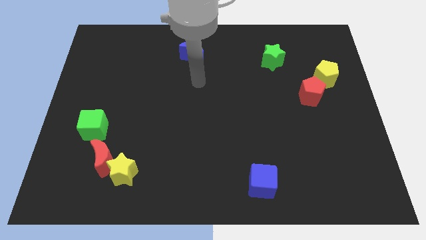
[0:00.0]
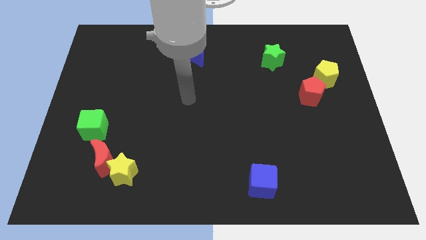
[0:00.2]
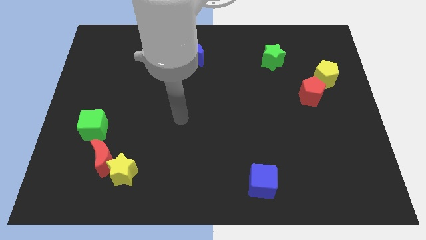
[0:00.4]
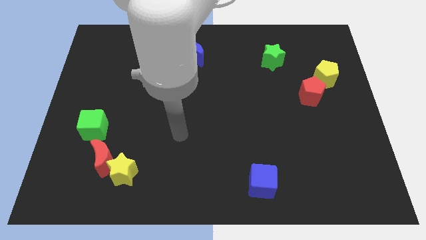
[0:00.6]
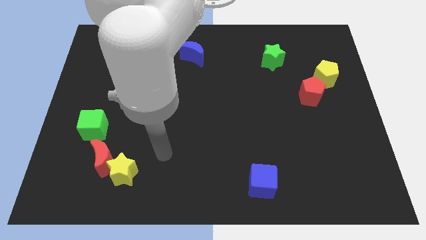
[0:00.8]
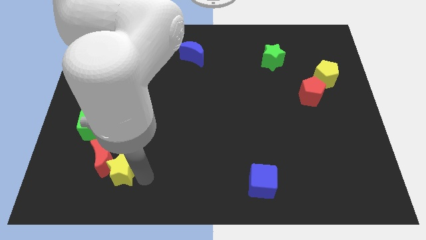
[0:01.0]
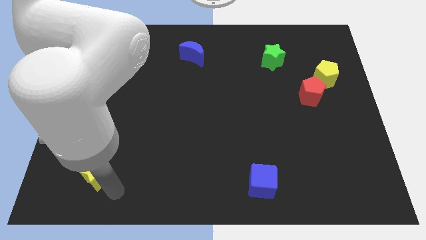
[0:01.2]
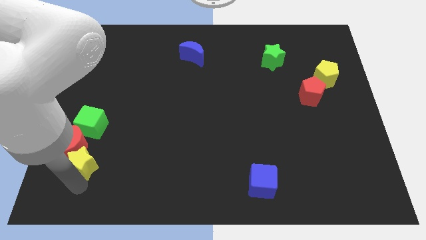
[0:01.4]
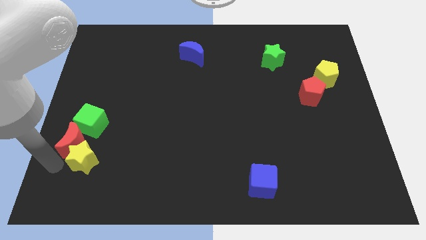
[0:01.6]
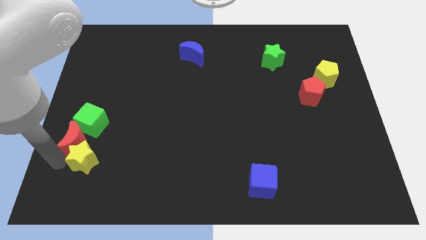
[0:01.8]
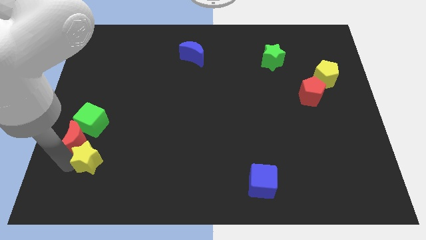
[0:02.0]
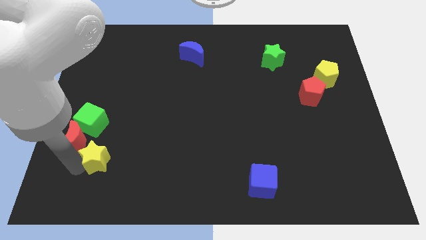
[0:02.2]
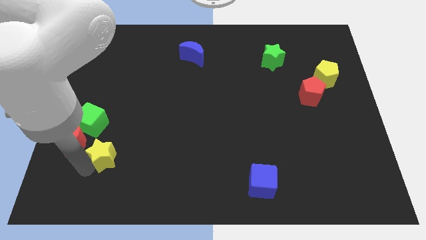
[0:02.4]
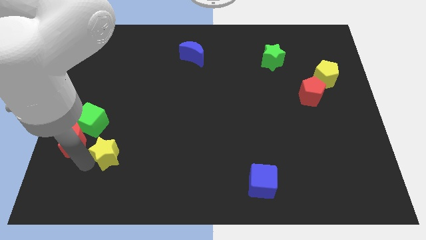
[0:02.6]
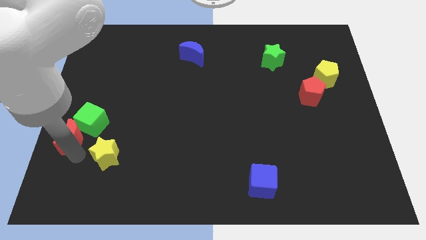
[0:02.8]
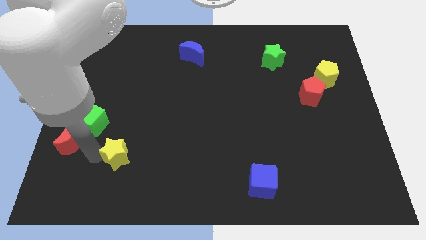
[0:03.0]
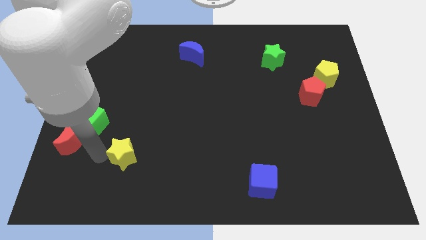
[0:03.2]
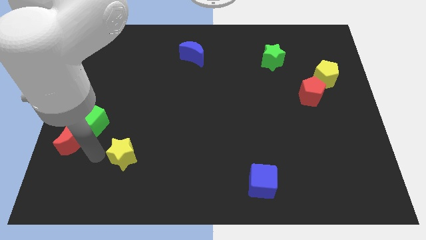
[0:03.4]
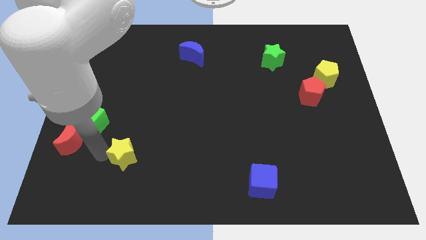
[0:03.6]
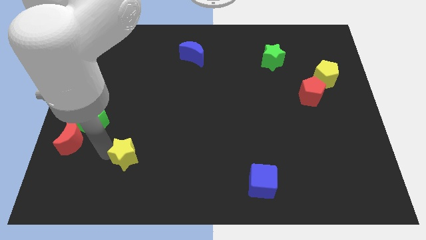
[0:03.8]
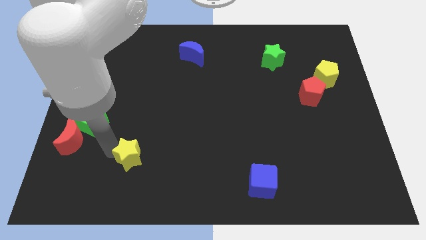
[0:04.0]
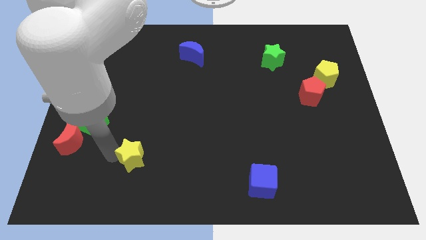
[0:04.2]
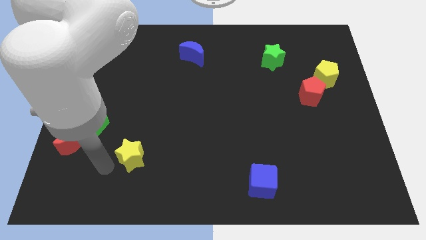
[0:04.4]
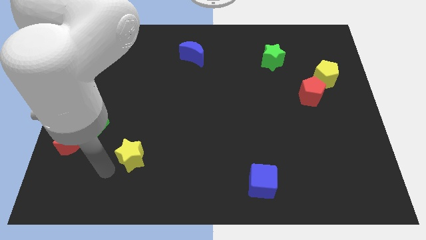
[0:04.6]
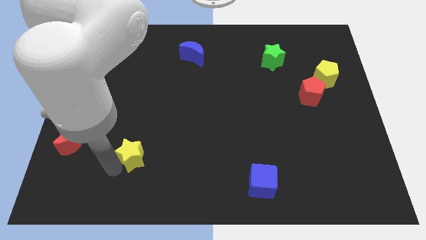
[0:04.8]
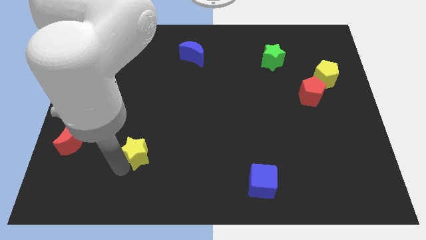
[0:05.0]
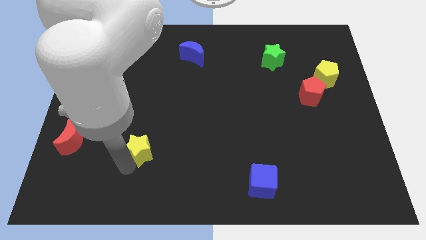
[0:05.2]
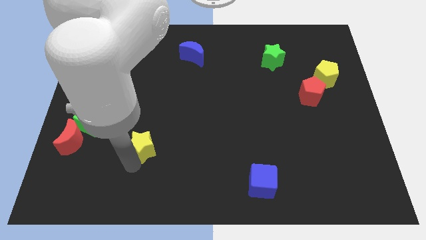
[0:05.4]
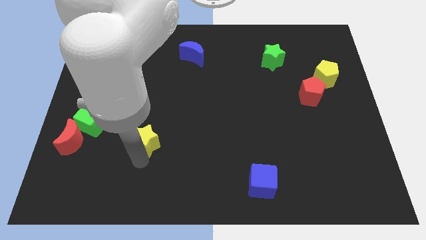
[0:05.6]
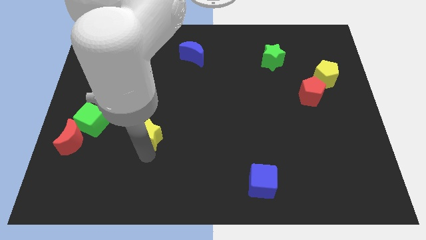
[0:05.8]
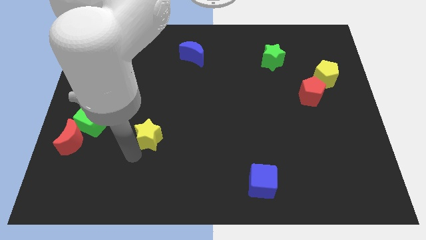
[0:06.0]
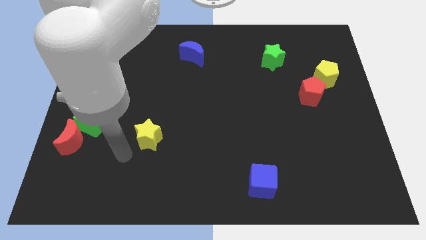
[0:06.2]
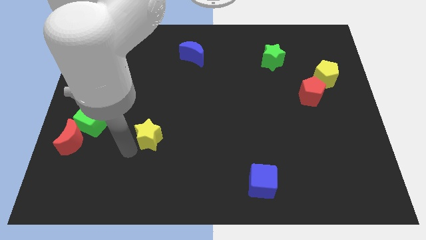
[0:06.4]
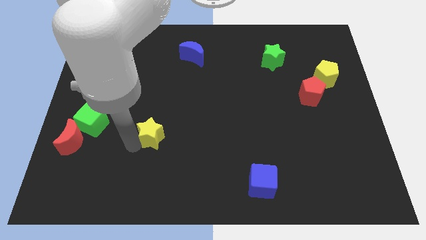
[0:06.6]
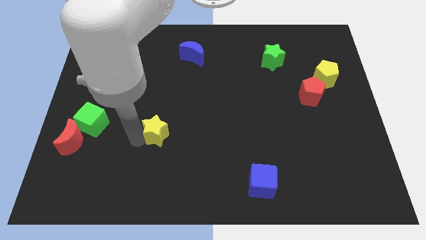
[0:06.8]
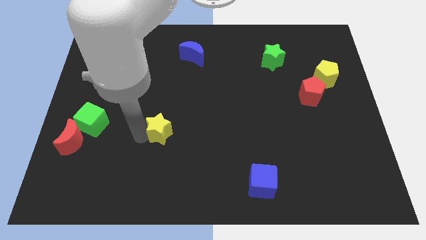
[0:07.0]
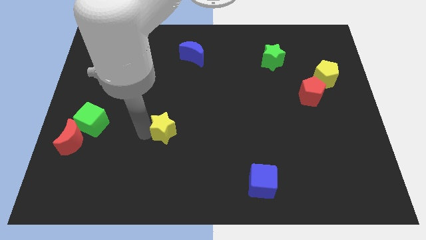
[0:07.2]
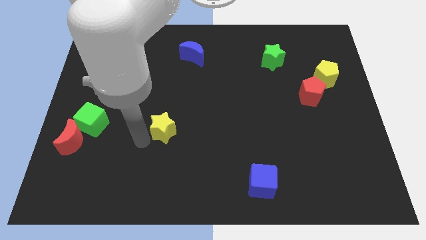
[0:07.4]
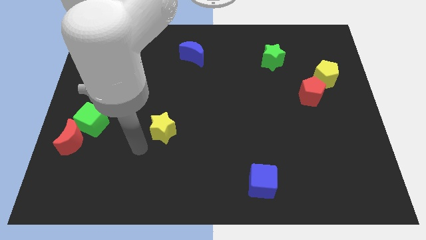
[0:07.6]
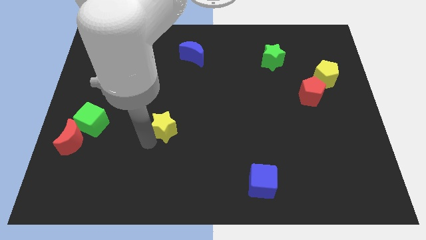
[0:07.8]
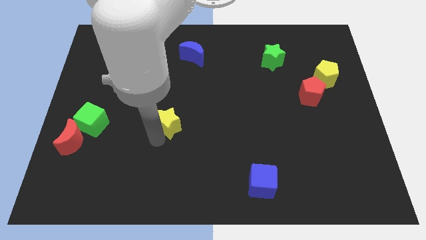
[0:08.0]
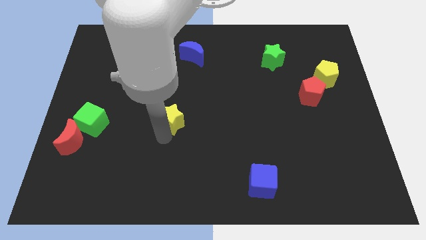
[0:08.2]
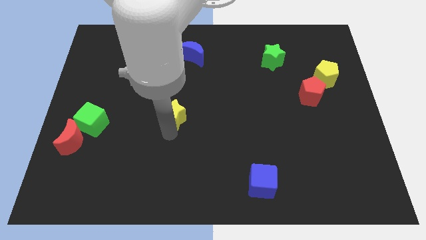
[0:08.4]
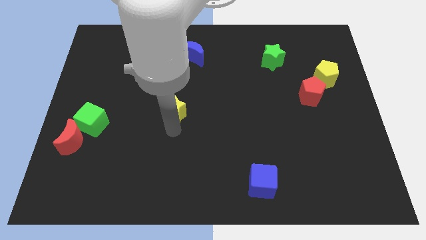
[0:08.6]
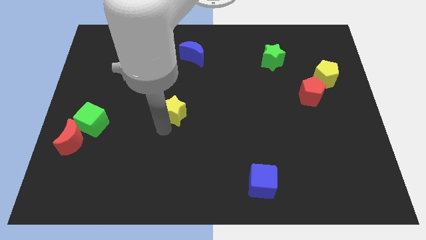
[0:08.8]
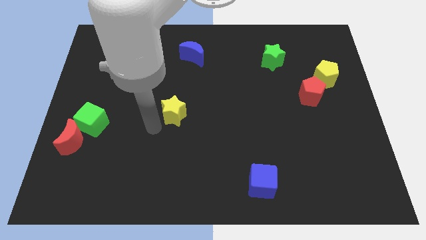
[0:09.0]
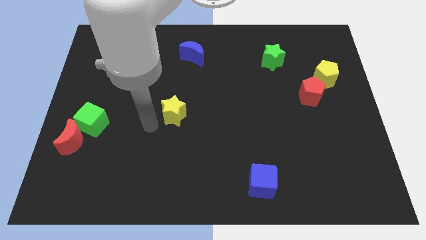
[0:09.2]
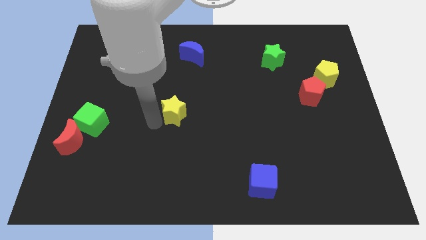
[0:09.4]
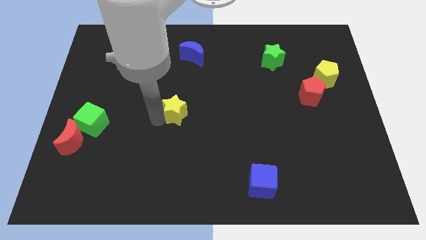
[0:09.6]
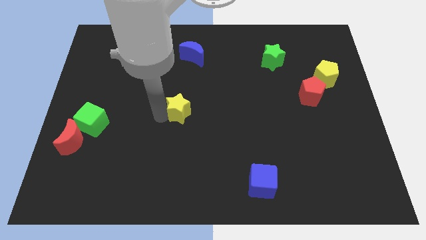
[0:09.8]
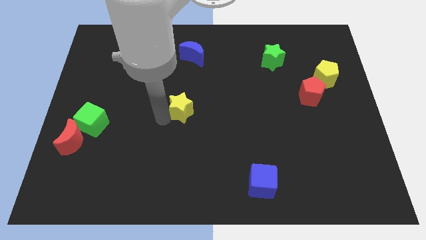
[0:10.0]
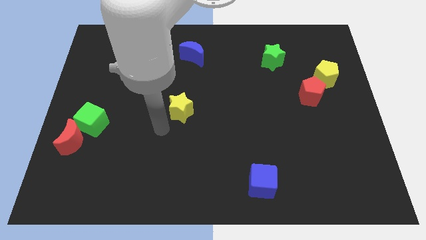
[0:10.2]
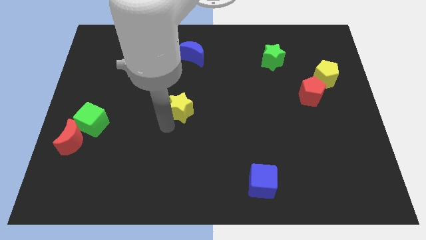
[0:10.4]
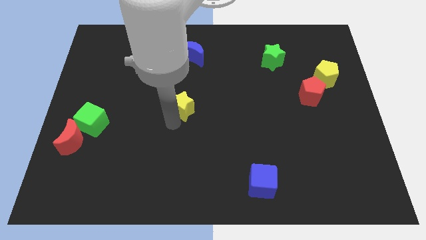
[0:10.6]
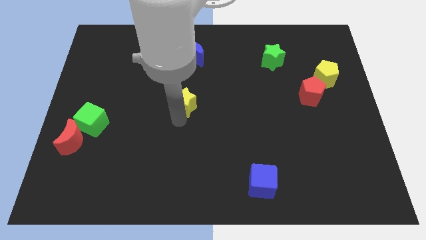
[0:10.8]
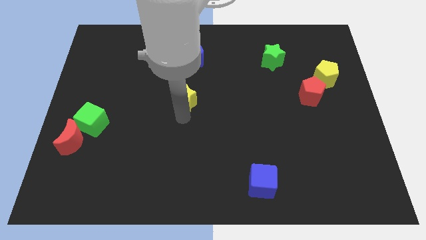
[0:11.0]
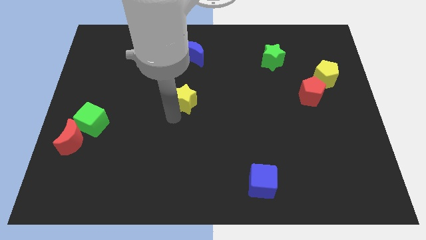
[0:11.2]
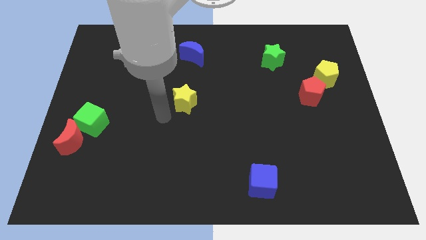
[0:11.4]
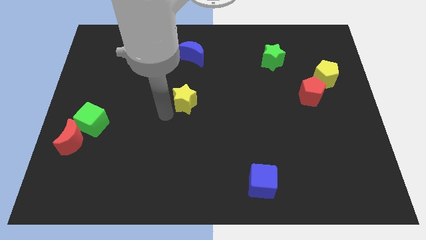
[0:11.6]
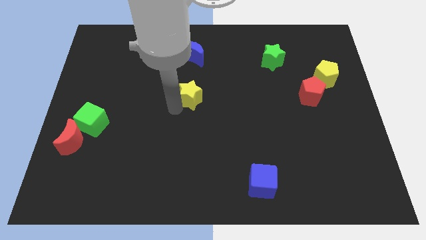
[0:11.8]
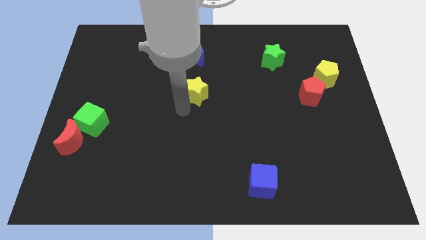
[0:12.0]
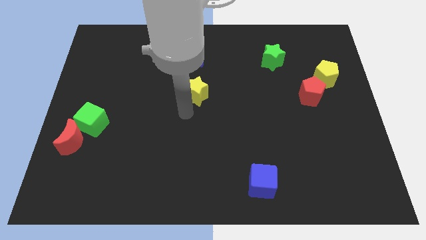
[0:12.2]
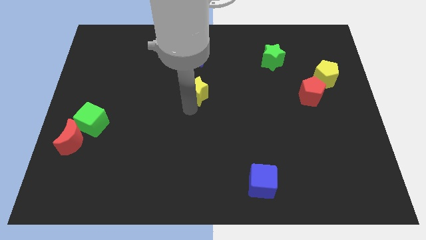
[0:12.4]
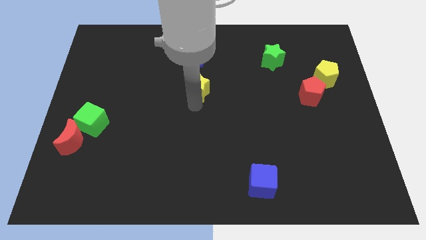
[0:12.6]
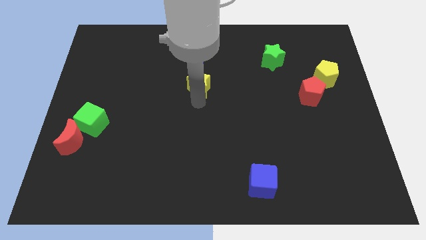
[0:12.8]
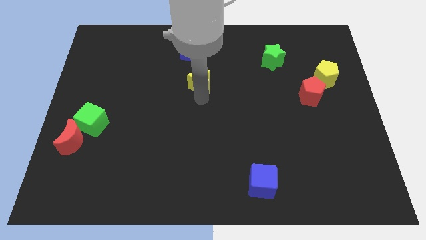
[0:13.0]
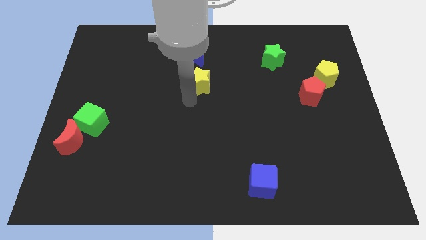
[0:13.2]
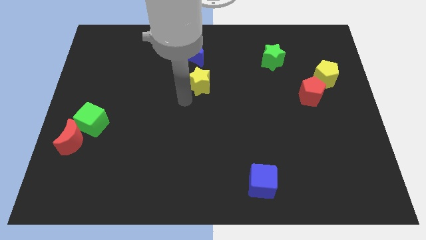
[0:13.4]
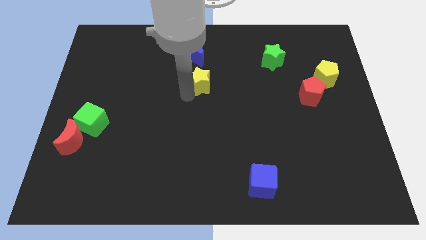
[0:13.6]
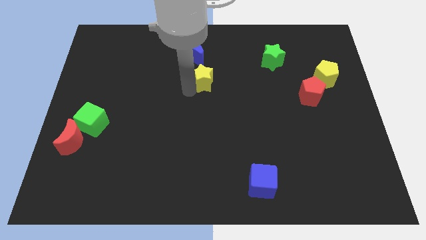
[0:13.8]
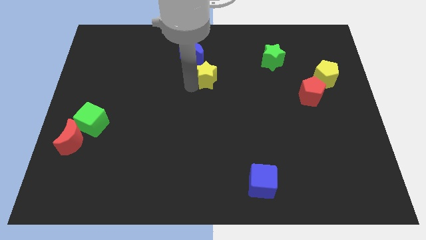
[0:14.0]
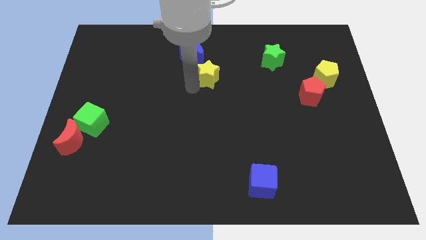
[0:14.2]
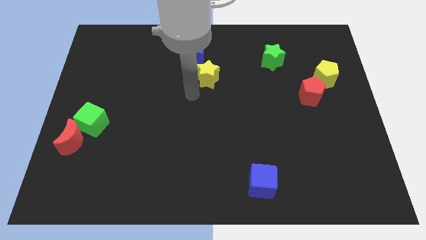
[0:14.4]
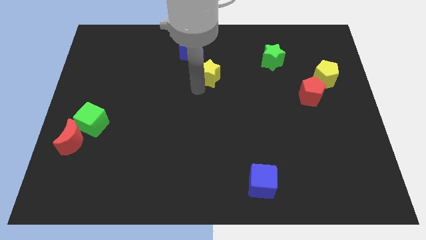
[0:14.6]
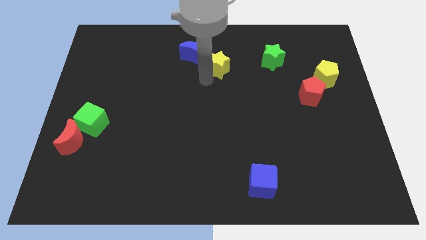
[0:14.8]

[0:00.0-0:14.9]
slide the yellow star right of the blue moon

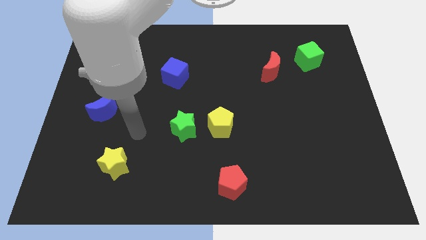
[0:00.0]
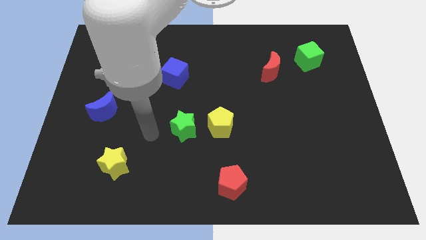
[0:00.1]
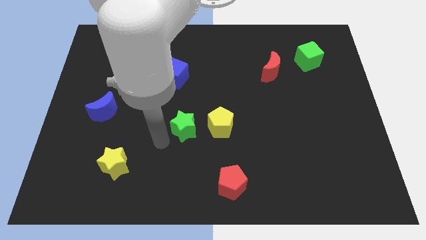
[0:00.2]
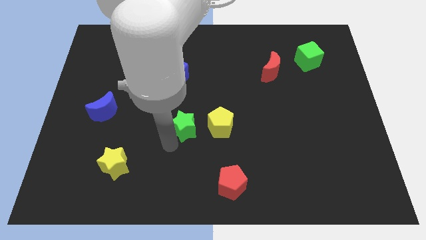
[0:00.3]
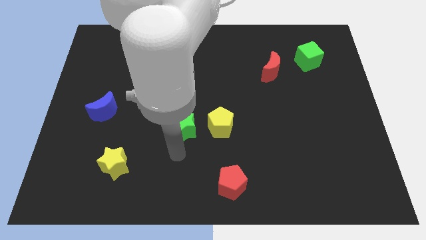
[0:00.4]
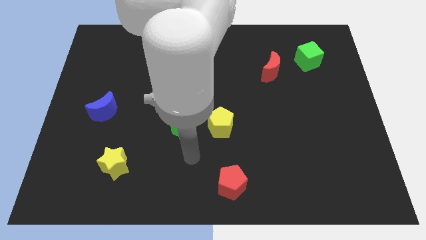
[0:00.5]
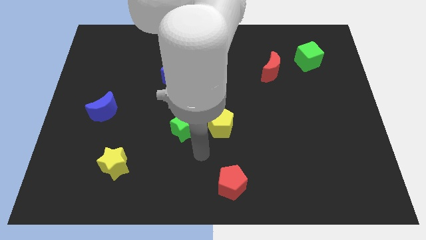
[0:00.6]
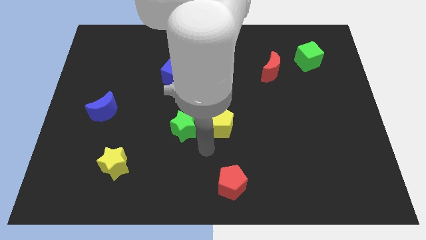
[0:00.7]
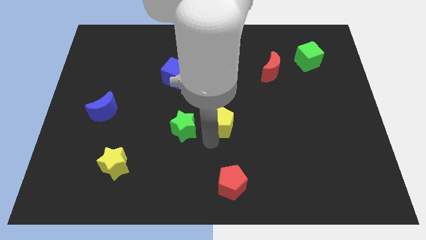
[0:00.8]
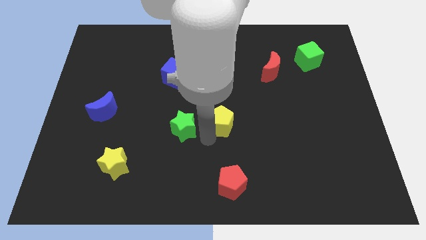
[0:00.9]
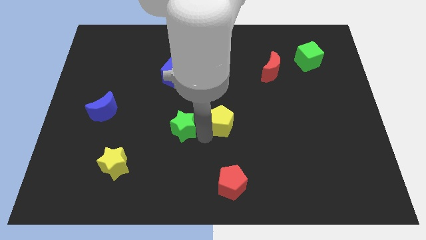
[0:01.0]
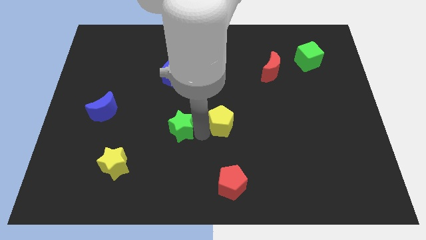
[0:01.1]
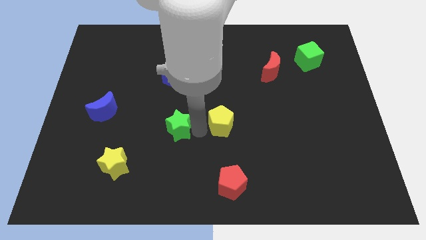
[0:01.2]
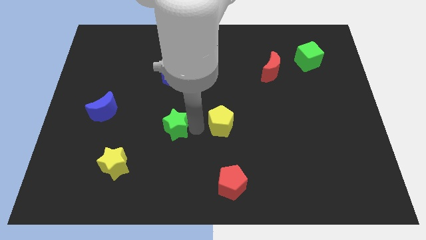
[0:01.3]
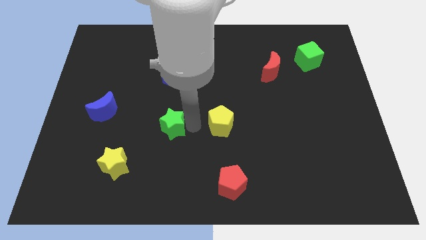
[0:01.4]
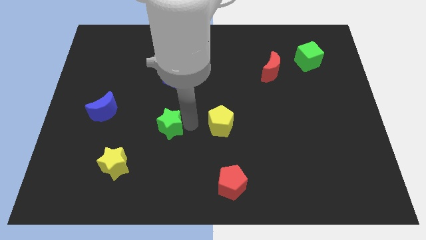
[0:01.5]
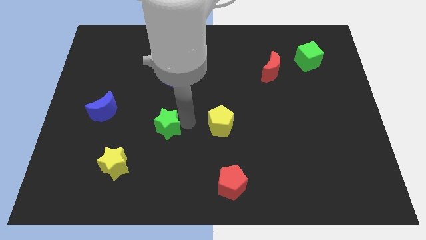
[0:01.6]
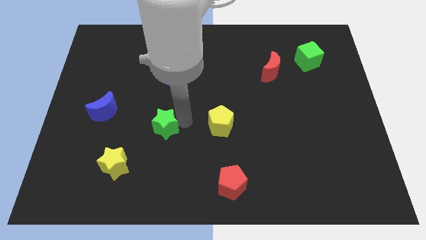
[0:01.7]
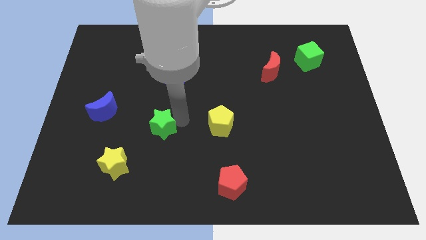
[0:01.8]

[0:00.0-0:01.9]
put the green star right of the blue moon
